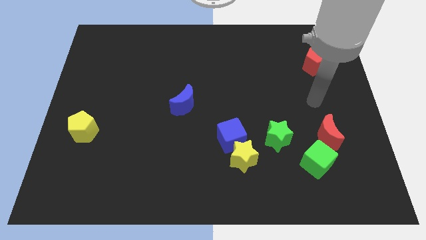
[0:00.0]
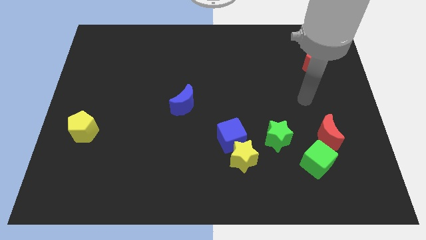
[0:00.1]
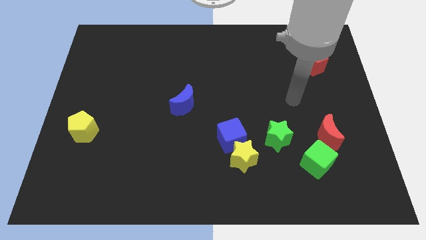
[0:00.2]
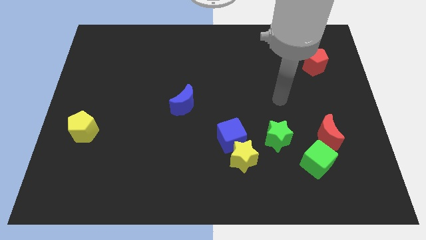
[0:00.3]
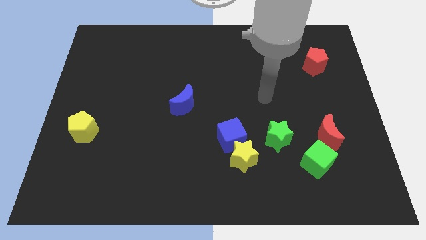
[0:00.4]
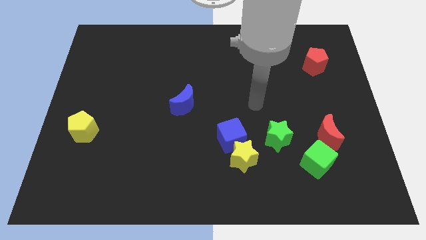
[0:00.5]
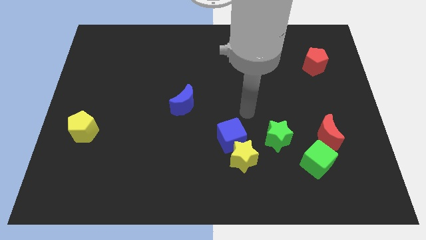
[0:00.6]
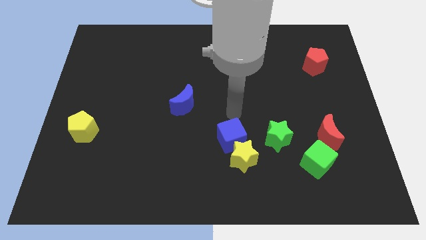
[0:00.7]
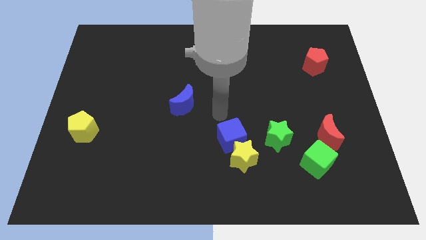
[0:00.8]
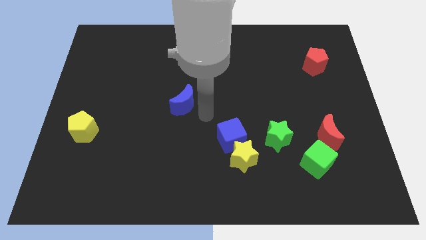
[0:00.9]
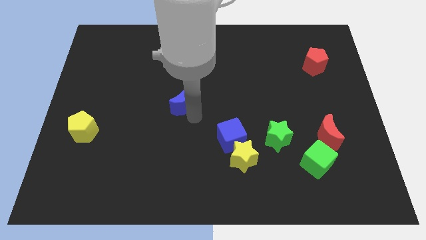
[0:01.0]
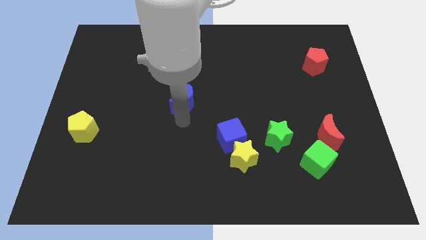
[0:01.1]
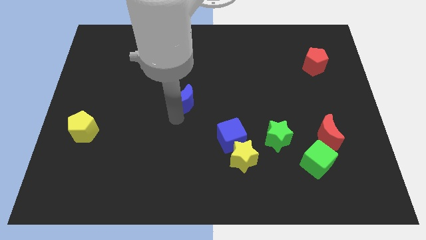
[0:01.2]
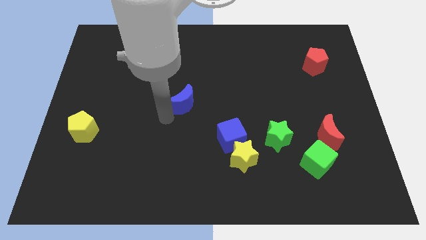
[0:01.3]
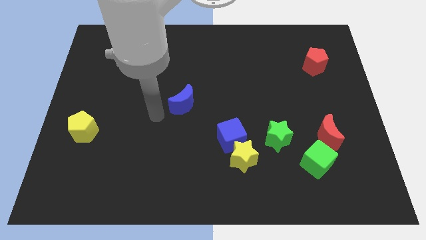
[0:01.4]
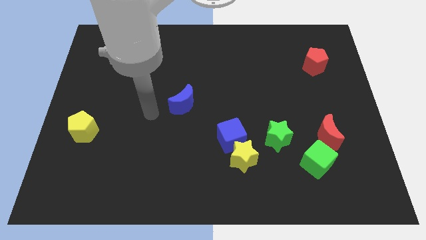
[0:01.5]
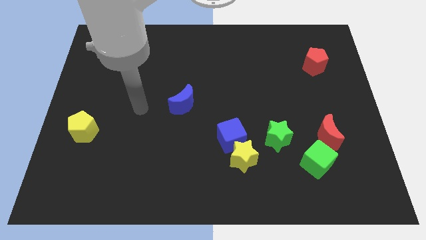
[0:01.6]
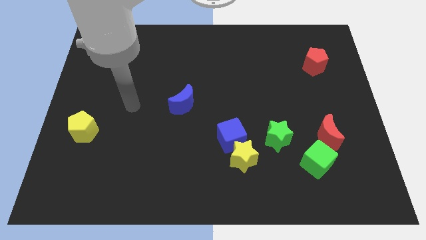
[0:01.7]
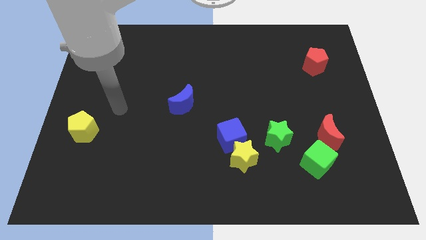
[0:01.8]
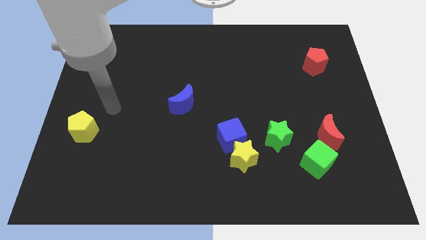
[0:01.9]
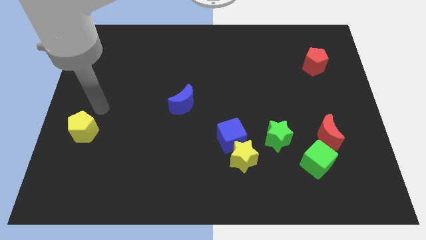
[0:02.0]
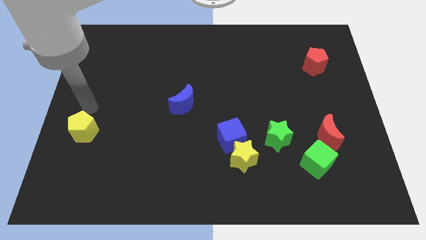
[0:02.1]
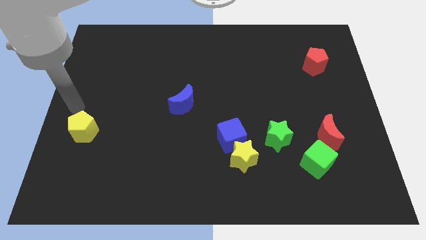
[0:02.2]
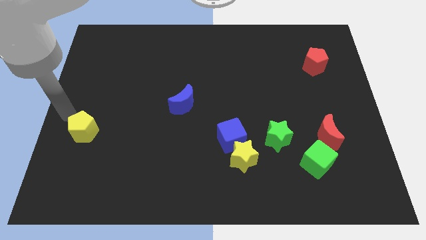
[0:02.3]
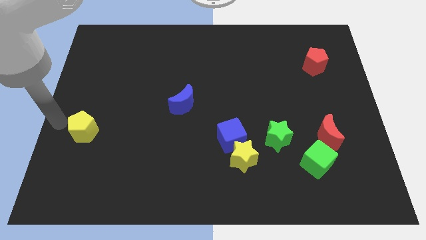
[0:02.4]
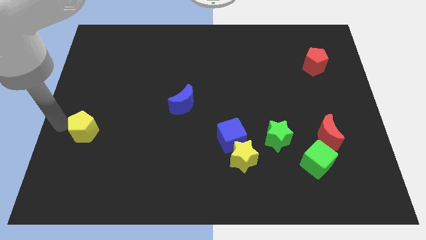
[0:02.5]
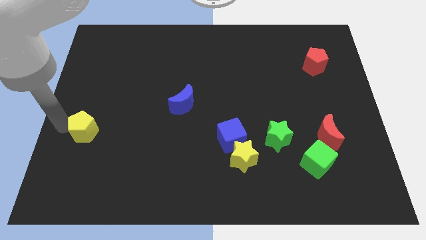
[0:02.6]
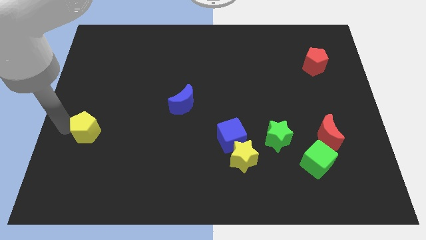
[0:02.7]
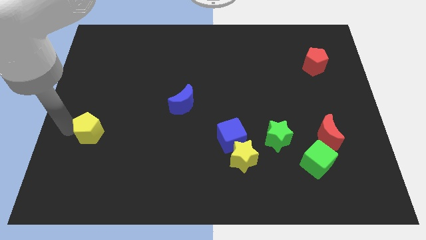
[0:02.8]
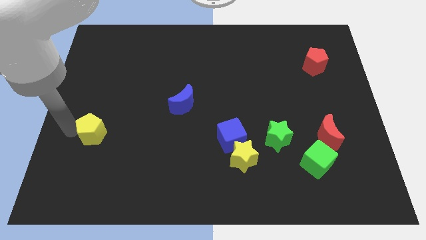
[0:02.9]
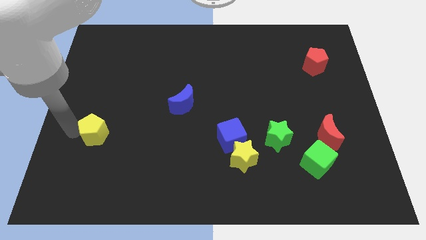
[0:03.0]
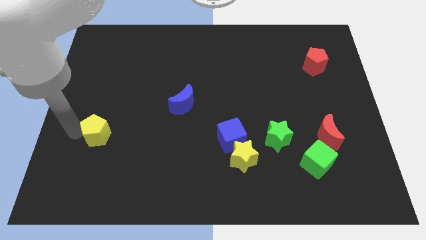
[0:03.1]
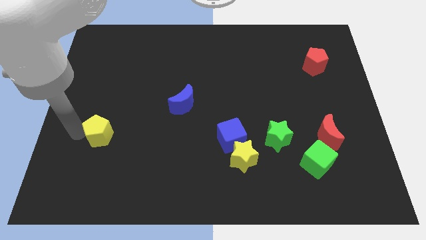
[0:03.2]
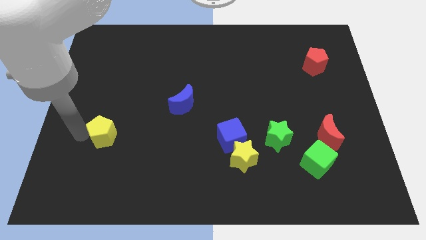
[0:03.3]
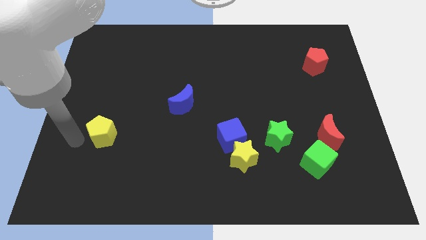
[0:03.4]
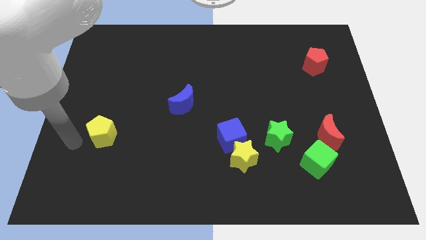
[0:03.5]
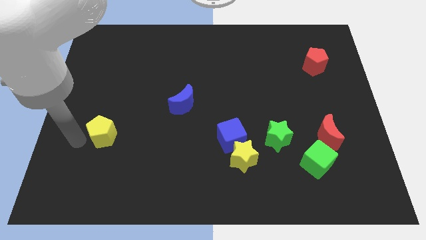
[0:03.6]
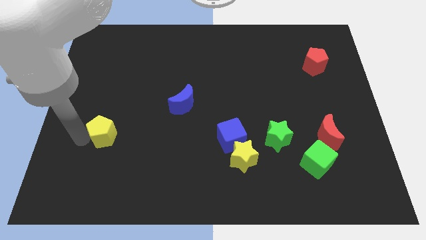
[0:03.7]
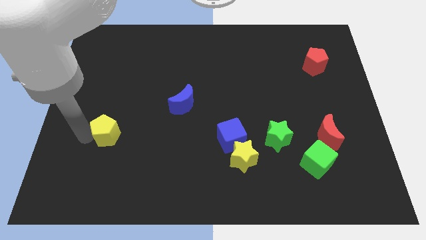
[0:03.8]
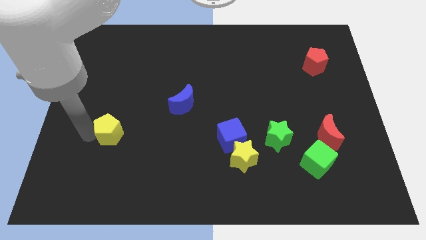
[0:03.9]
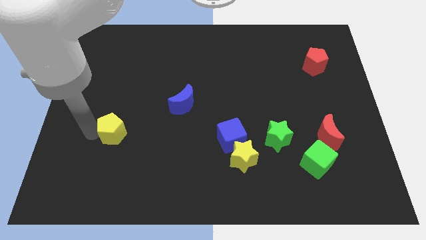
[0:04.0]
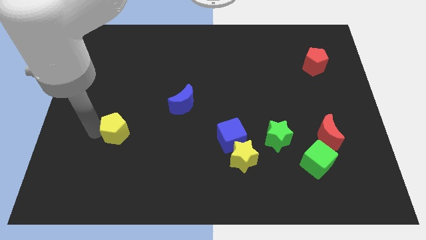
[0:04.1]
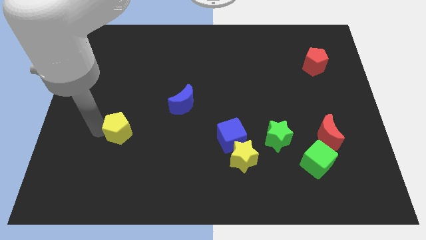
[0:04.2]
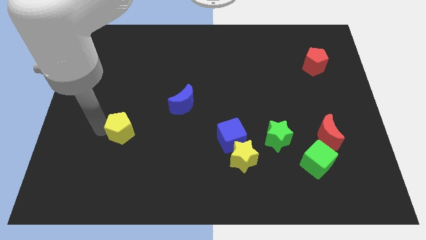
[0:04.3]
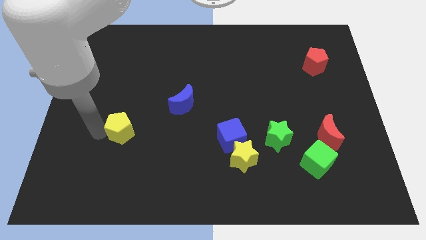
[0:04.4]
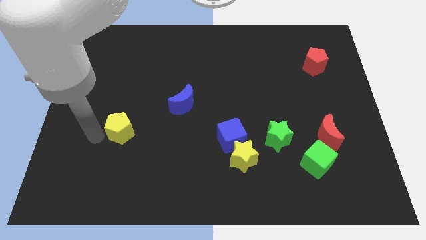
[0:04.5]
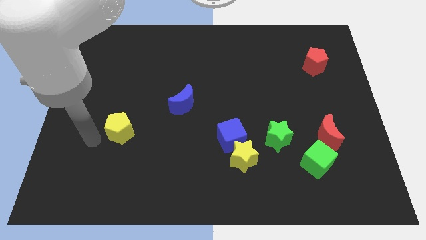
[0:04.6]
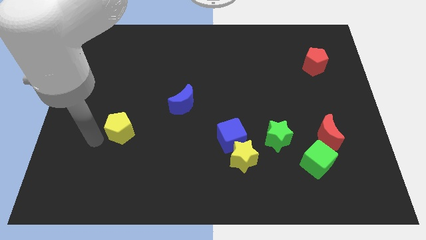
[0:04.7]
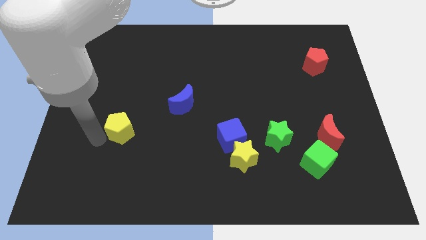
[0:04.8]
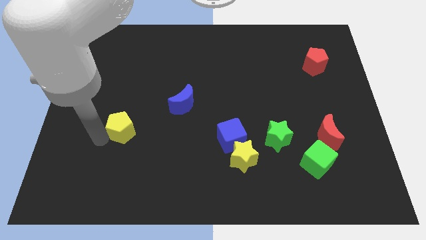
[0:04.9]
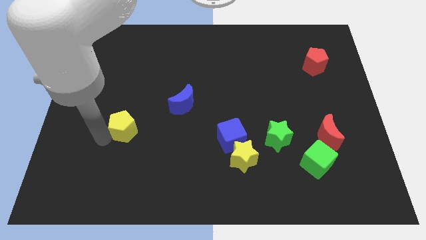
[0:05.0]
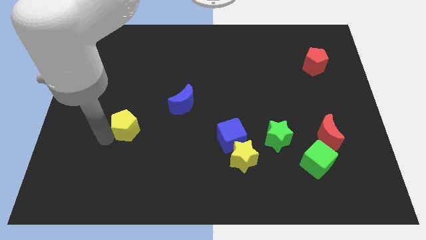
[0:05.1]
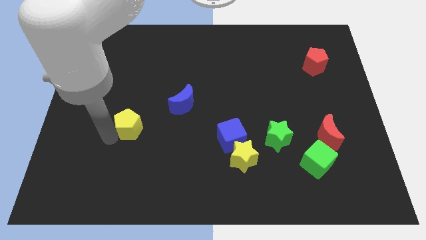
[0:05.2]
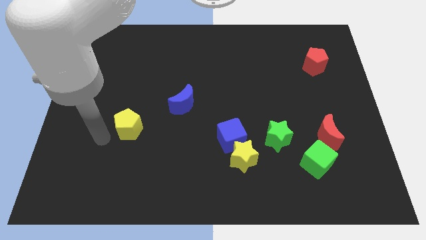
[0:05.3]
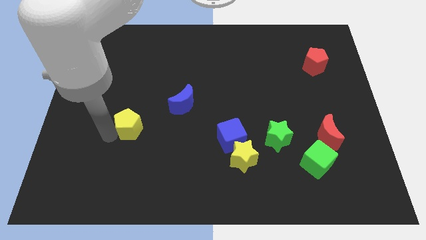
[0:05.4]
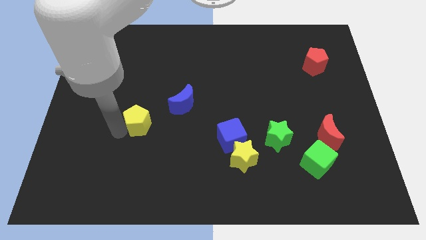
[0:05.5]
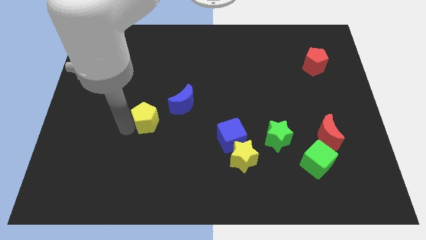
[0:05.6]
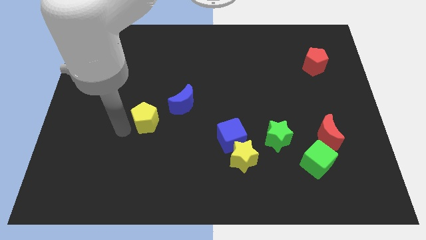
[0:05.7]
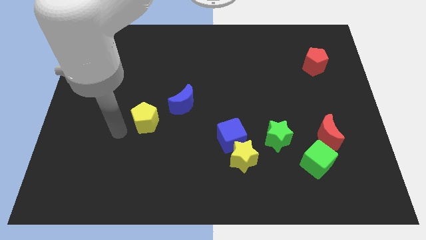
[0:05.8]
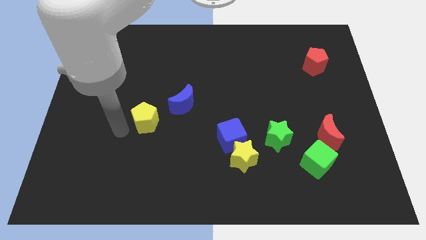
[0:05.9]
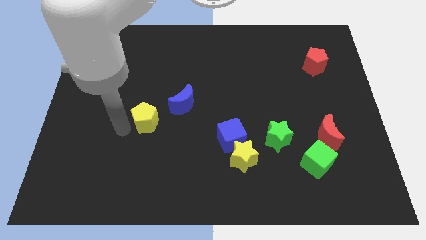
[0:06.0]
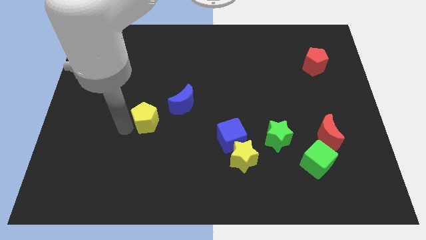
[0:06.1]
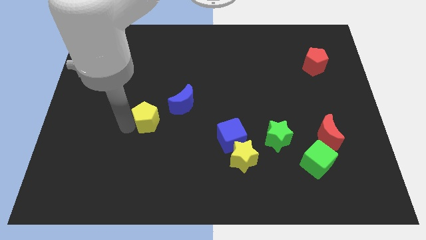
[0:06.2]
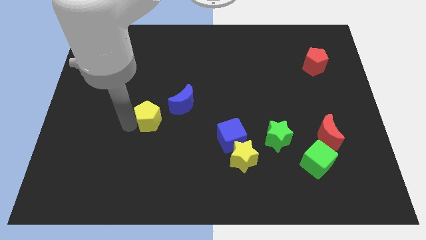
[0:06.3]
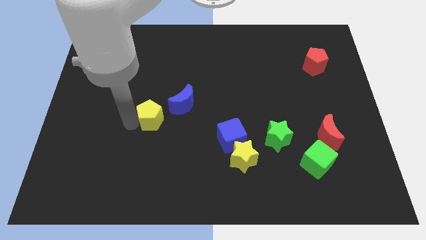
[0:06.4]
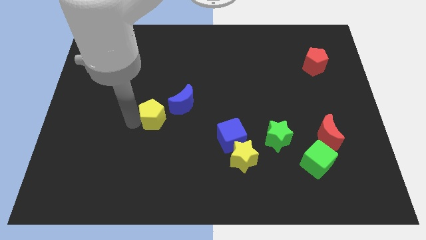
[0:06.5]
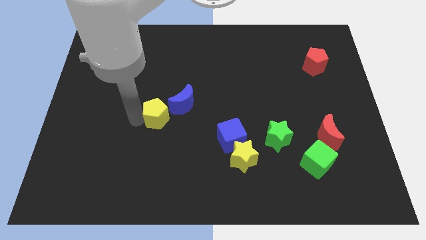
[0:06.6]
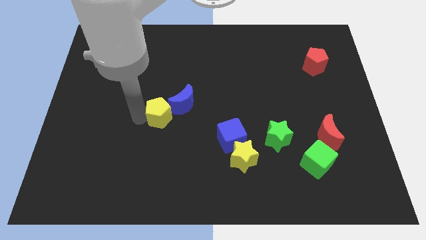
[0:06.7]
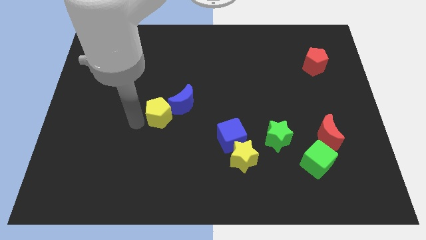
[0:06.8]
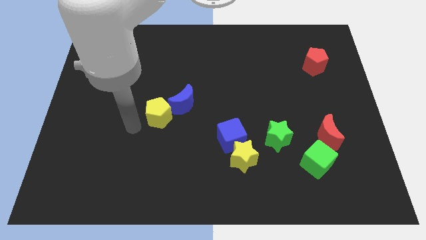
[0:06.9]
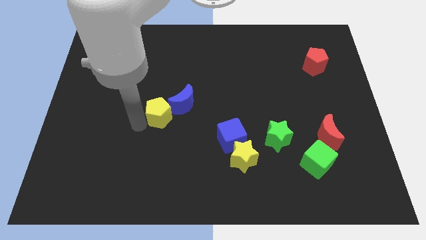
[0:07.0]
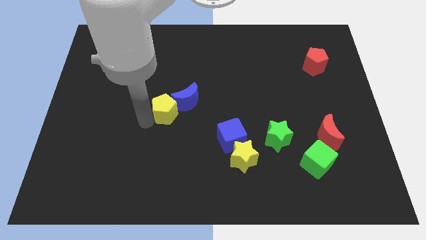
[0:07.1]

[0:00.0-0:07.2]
move the yellow pentagon towards the blue moon

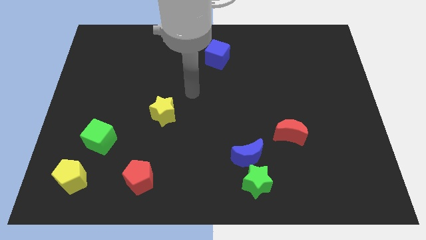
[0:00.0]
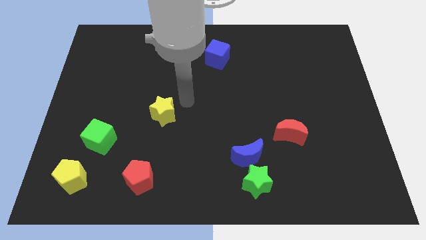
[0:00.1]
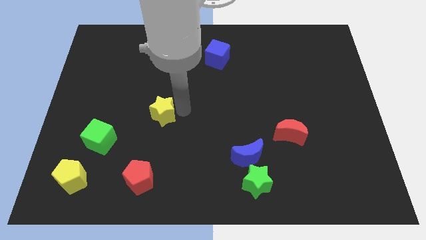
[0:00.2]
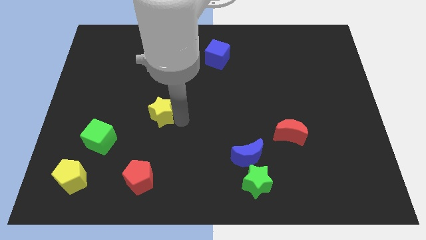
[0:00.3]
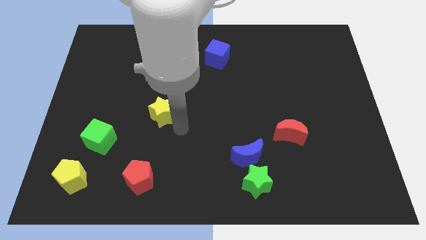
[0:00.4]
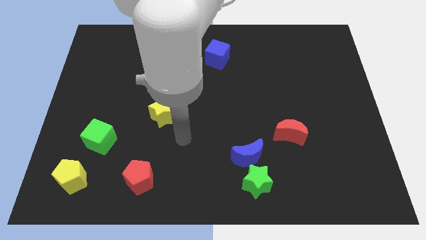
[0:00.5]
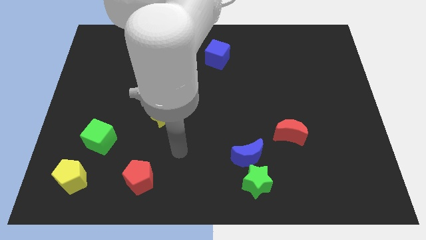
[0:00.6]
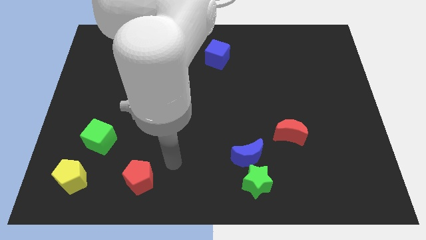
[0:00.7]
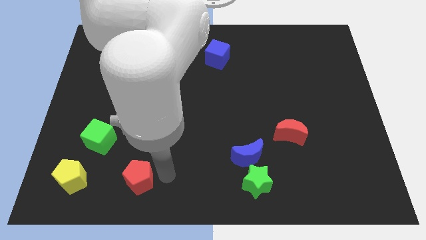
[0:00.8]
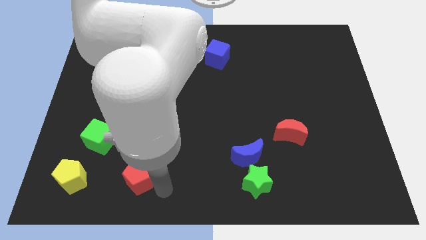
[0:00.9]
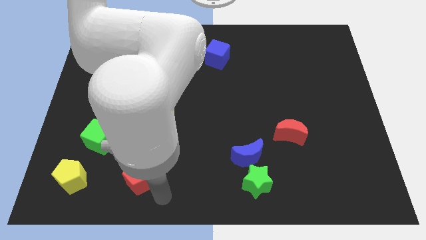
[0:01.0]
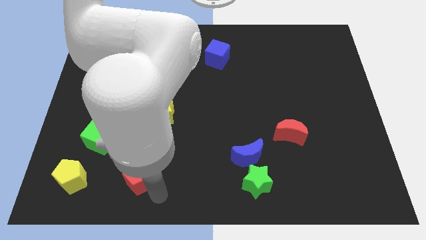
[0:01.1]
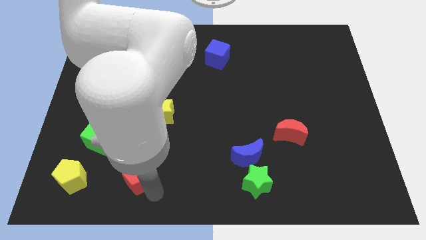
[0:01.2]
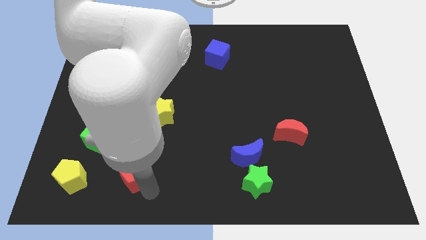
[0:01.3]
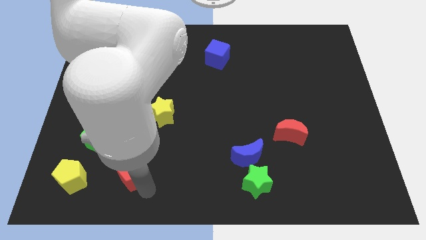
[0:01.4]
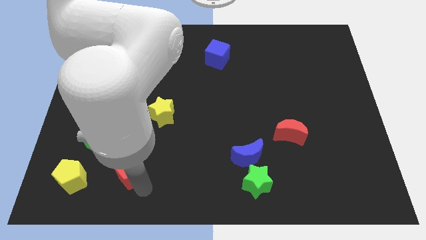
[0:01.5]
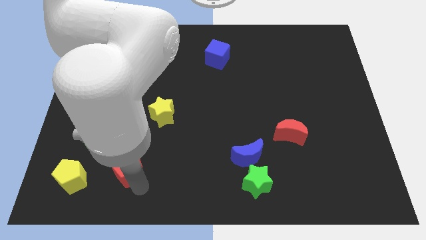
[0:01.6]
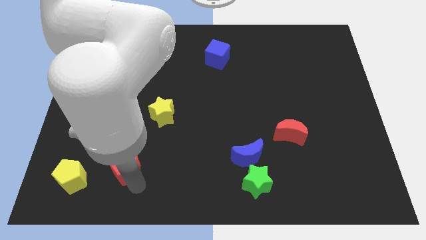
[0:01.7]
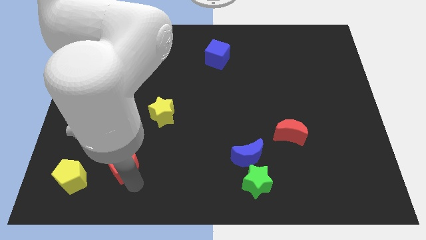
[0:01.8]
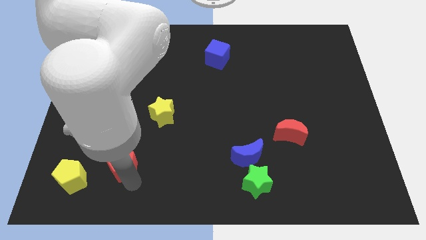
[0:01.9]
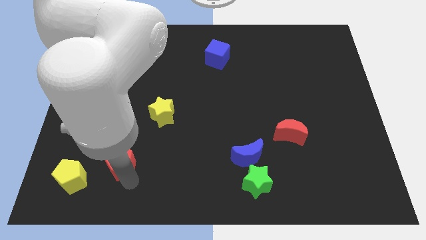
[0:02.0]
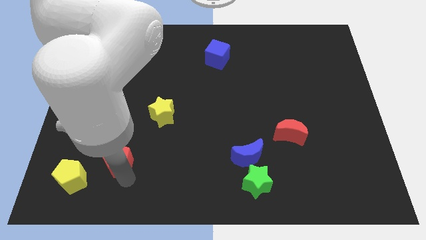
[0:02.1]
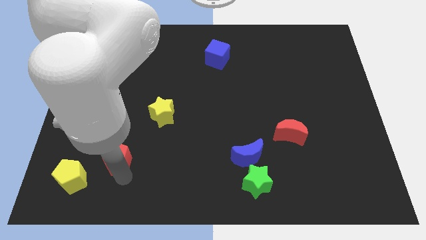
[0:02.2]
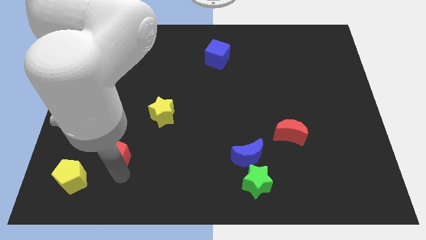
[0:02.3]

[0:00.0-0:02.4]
push the red pentagon next to the green cube
